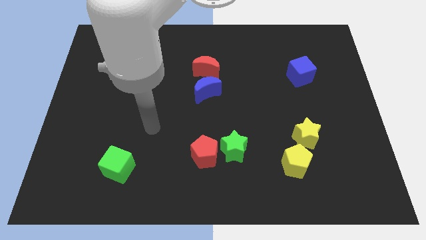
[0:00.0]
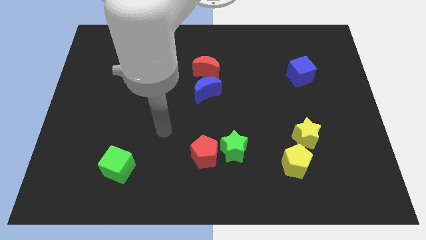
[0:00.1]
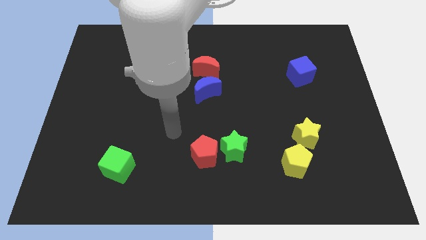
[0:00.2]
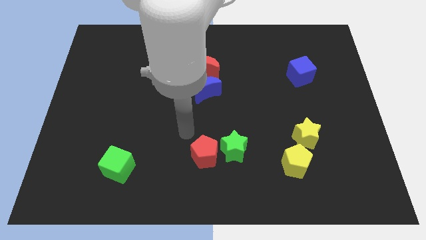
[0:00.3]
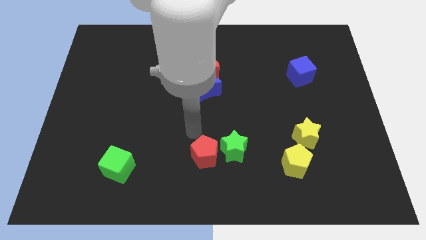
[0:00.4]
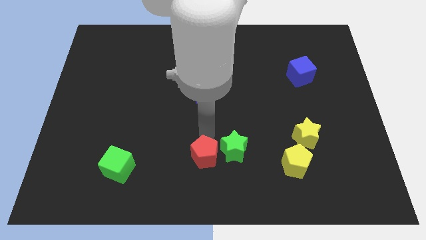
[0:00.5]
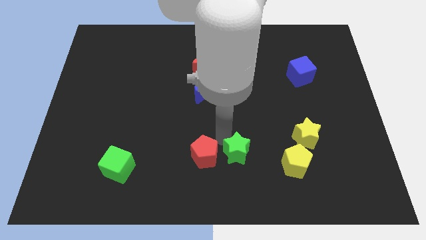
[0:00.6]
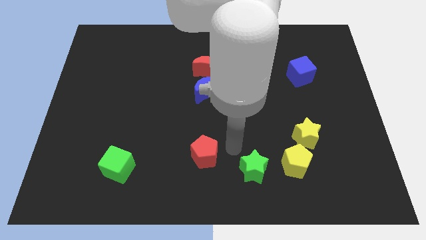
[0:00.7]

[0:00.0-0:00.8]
move the red pentagon away from the green star

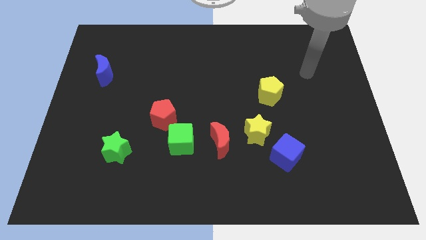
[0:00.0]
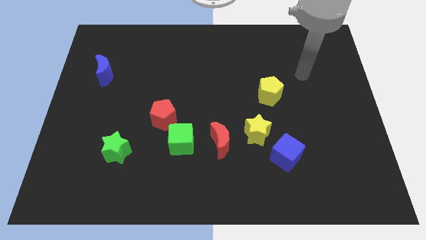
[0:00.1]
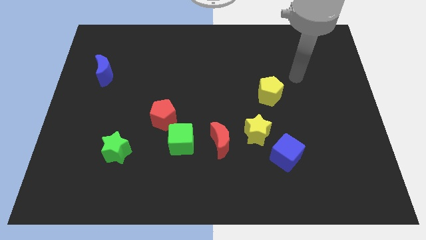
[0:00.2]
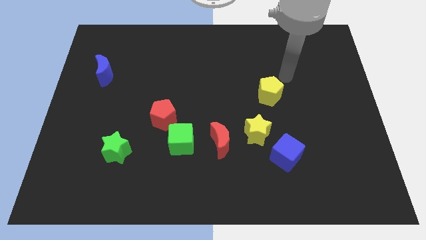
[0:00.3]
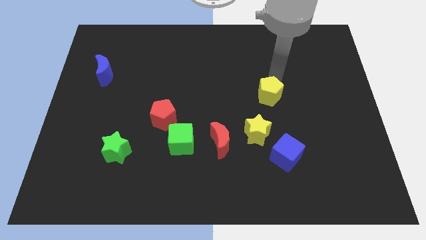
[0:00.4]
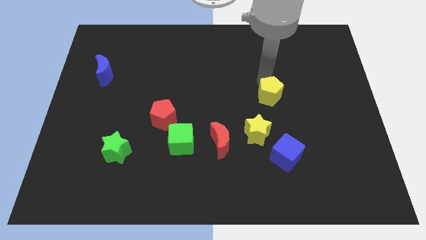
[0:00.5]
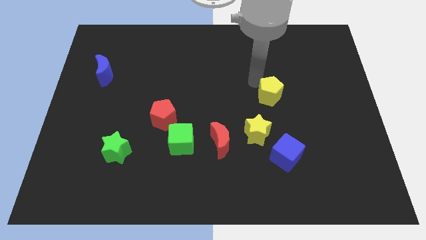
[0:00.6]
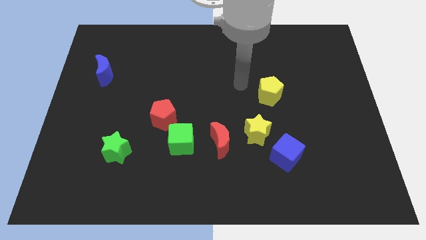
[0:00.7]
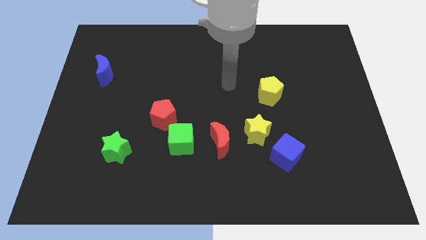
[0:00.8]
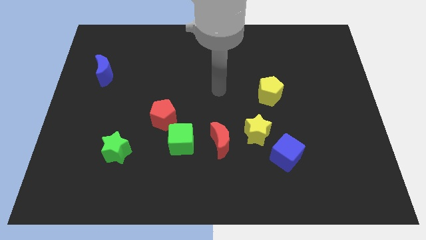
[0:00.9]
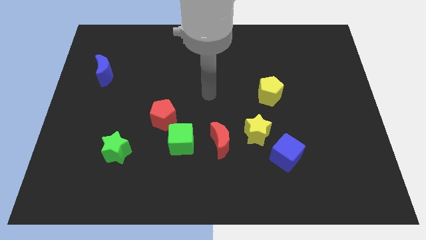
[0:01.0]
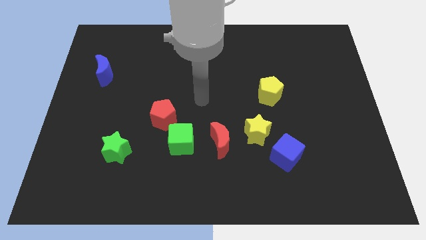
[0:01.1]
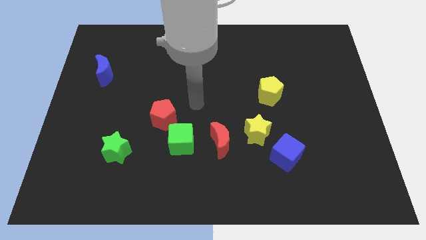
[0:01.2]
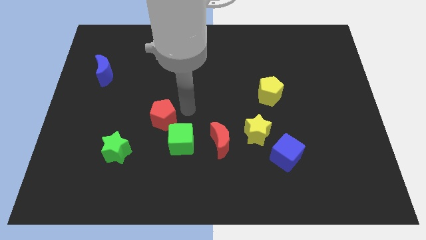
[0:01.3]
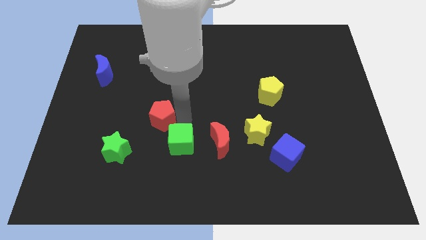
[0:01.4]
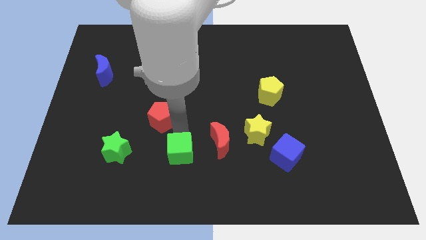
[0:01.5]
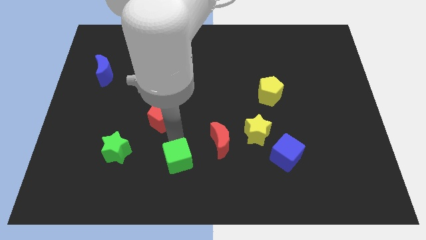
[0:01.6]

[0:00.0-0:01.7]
separate the red pentagon from the green cube

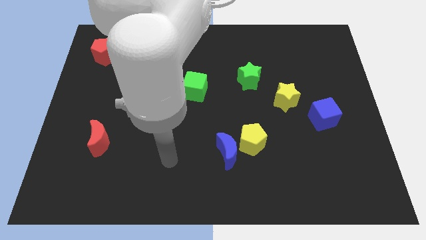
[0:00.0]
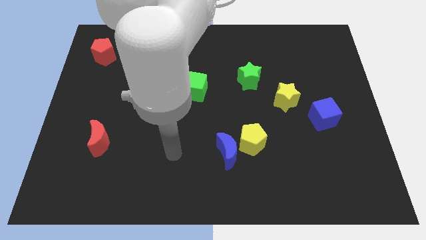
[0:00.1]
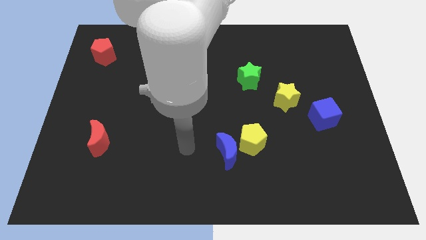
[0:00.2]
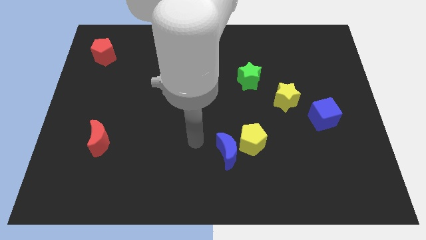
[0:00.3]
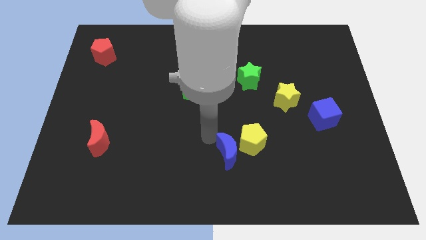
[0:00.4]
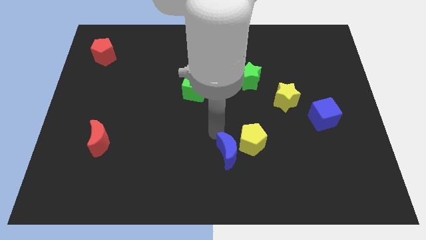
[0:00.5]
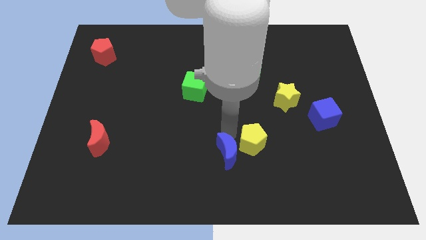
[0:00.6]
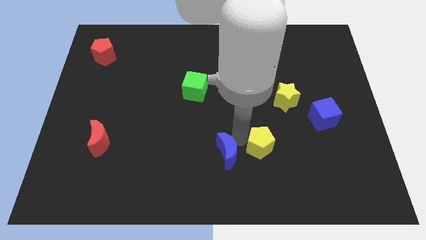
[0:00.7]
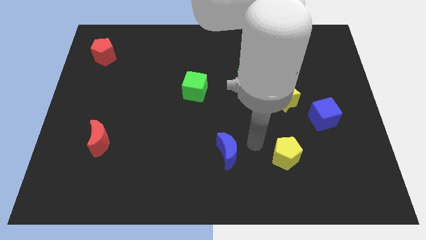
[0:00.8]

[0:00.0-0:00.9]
move the blue moon away from the yellow pentagon

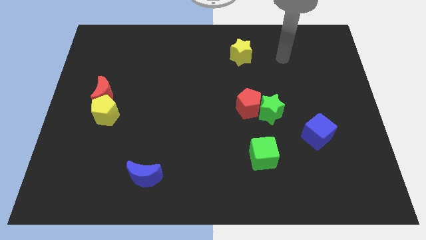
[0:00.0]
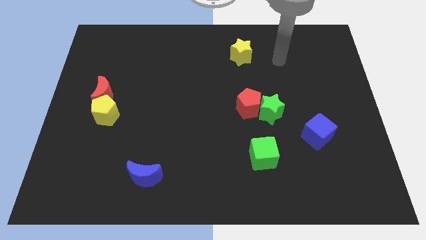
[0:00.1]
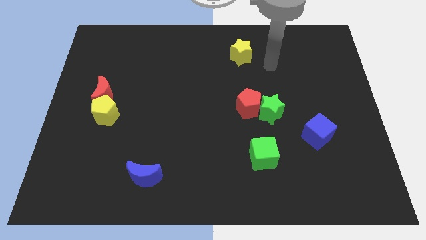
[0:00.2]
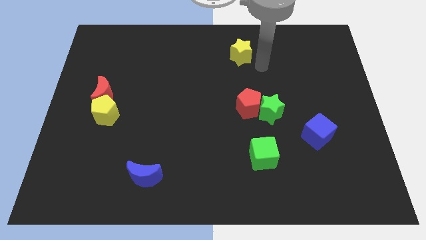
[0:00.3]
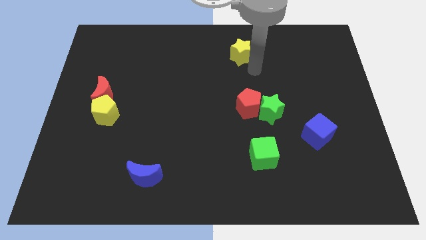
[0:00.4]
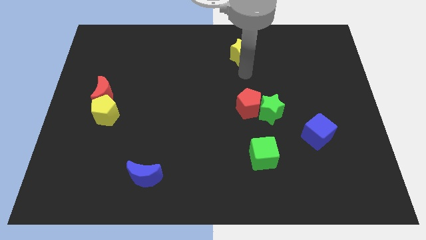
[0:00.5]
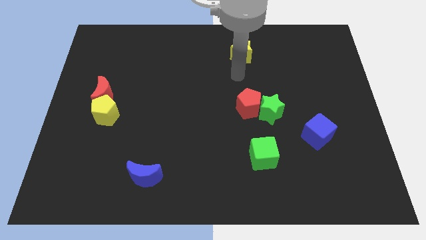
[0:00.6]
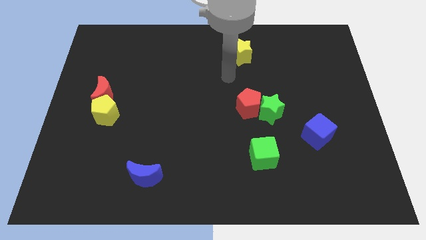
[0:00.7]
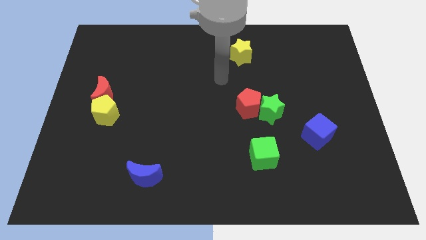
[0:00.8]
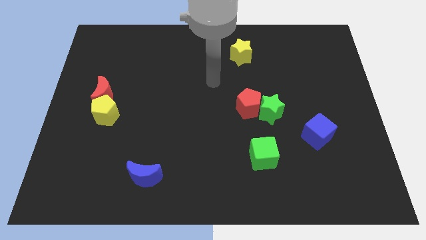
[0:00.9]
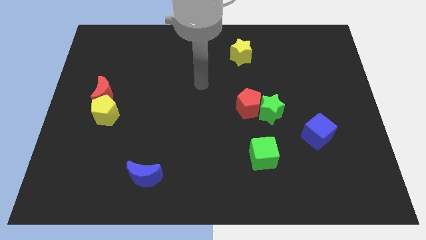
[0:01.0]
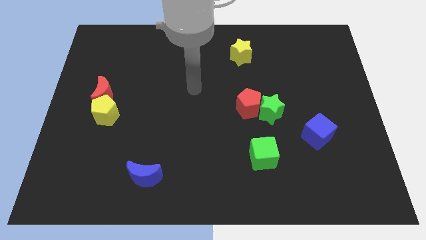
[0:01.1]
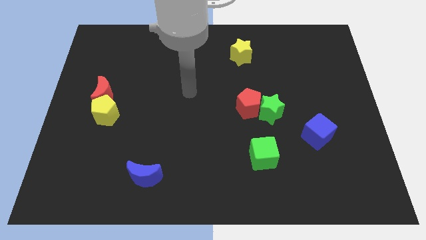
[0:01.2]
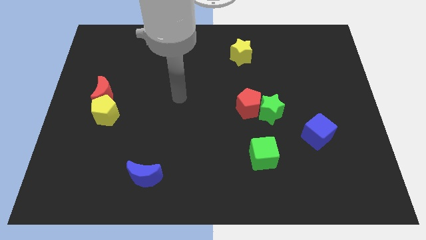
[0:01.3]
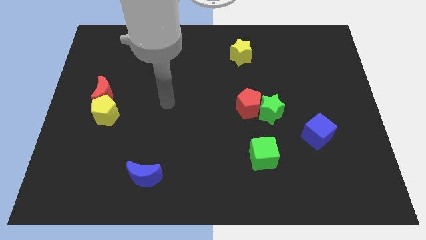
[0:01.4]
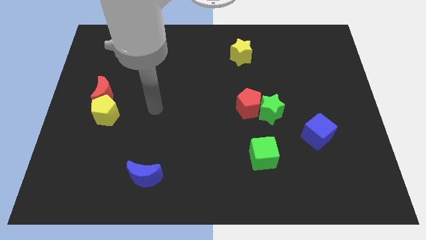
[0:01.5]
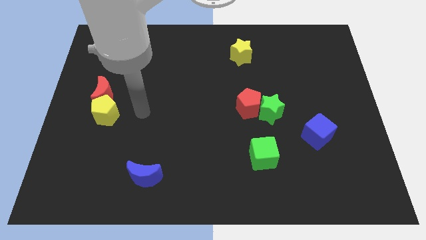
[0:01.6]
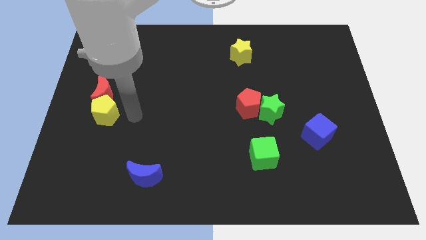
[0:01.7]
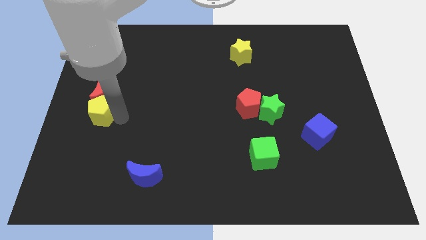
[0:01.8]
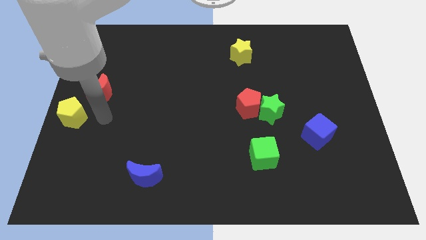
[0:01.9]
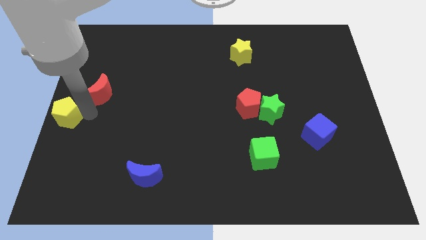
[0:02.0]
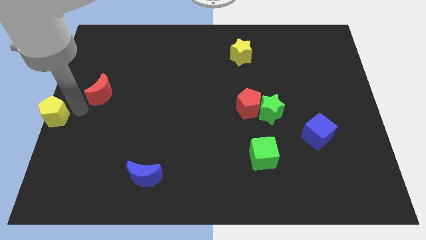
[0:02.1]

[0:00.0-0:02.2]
separate the red moon from the yellow pentagon

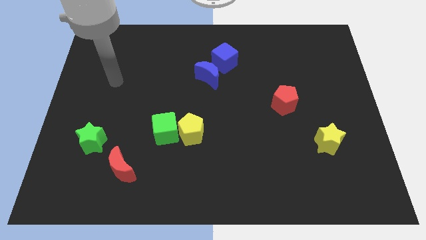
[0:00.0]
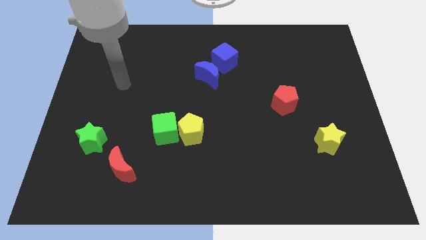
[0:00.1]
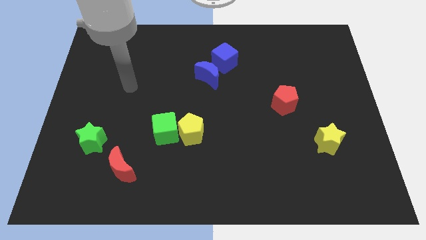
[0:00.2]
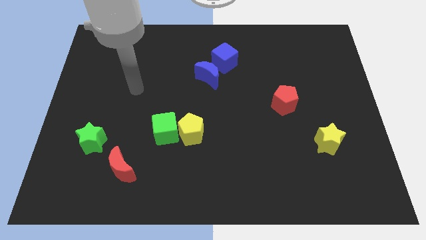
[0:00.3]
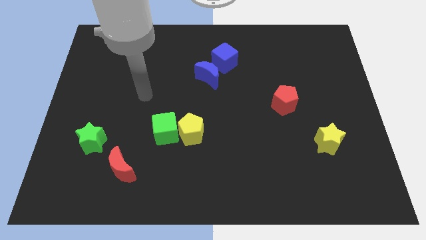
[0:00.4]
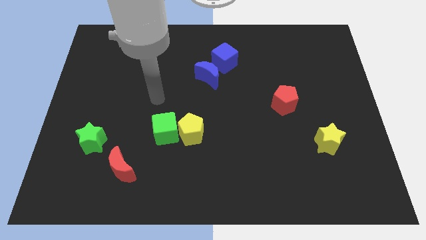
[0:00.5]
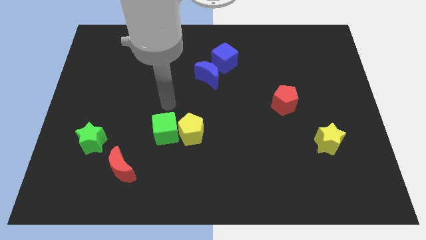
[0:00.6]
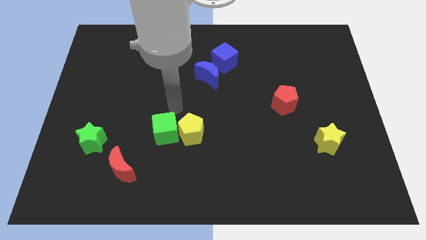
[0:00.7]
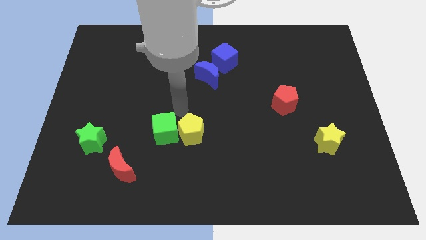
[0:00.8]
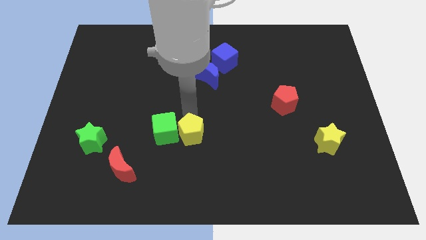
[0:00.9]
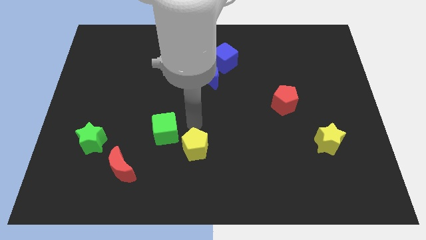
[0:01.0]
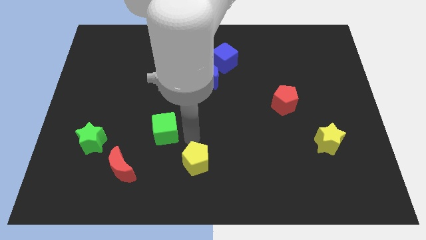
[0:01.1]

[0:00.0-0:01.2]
move the green cube away from the yellow pentagon

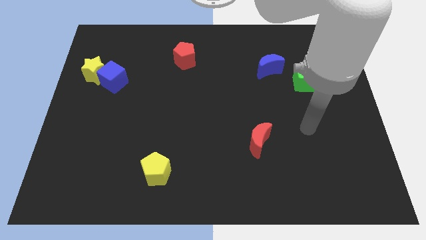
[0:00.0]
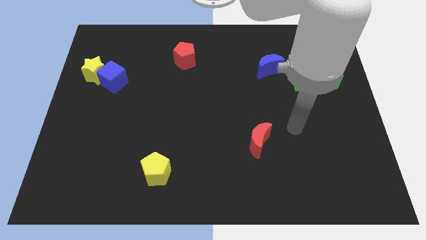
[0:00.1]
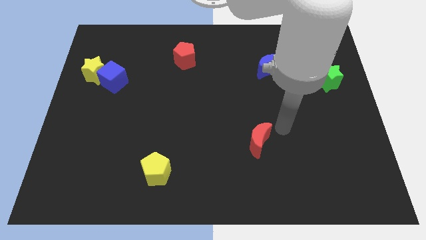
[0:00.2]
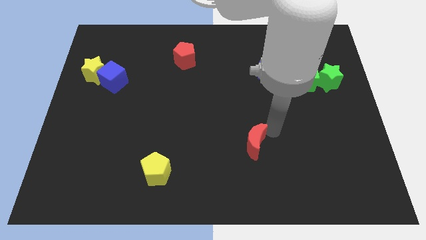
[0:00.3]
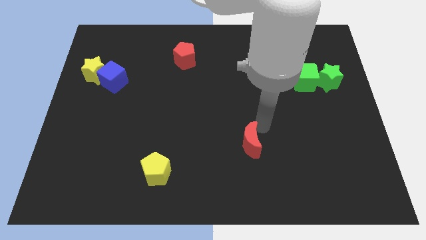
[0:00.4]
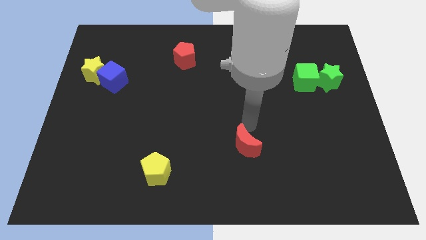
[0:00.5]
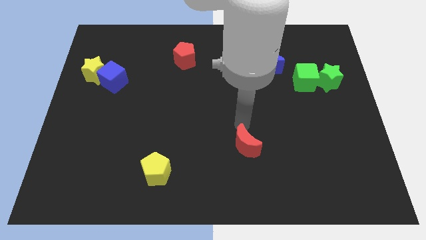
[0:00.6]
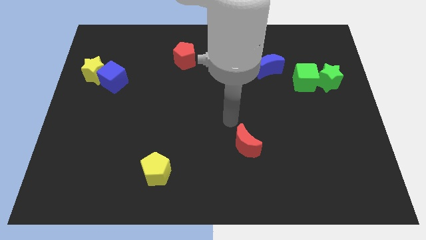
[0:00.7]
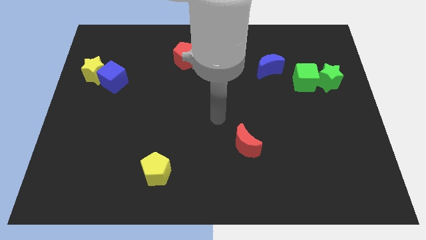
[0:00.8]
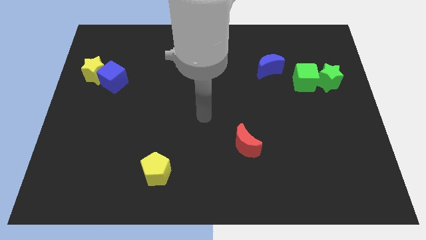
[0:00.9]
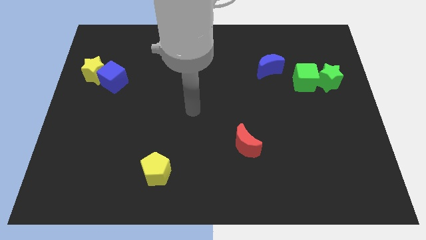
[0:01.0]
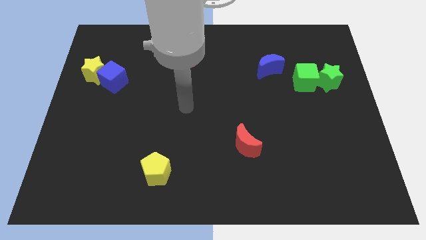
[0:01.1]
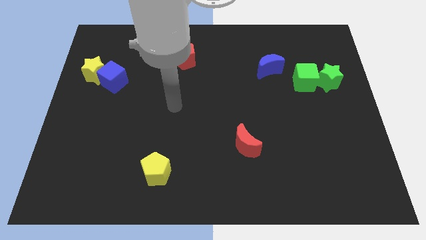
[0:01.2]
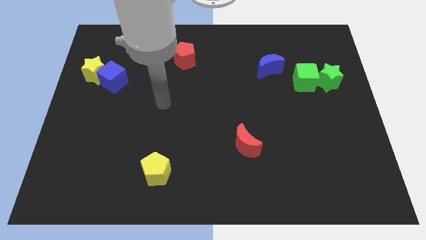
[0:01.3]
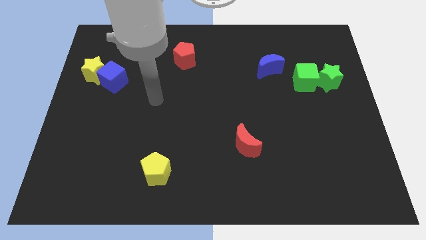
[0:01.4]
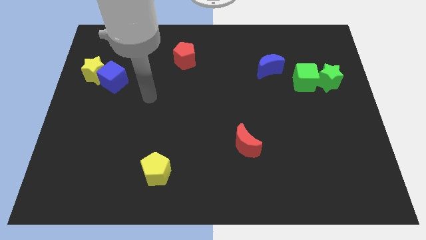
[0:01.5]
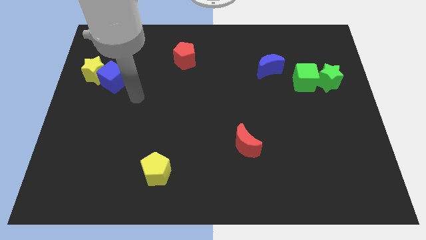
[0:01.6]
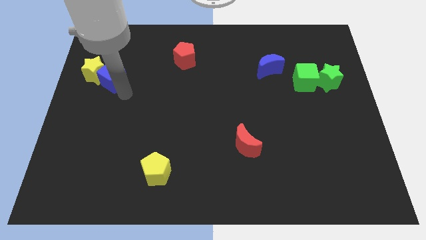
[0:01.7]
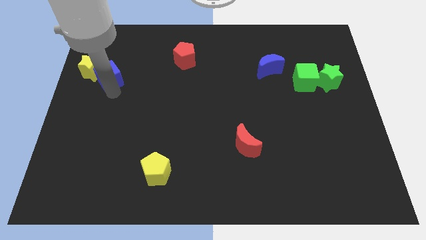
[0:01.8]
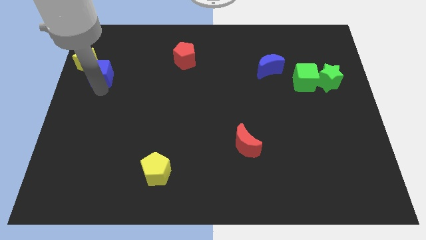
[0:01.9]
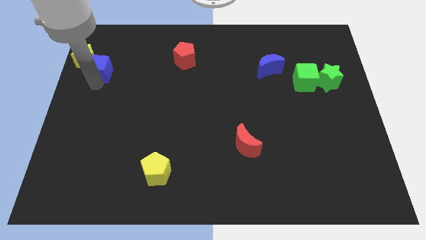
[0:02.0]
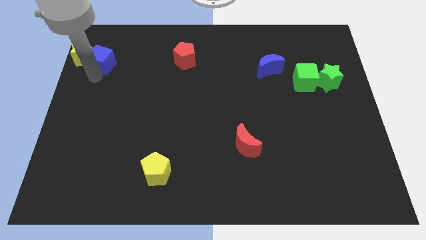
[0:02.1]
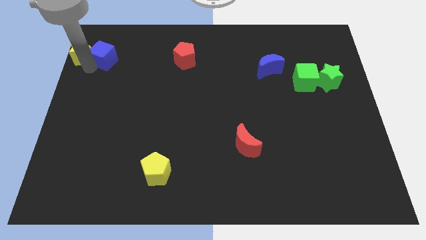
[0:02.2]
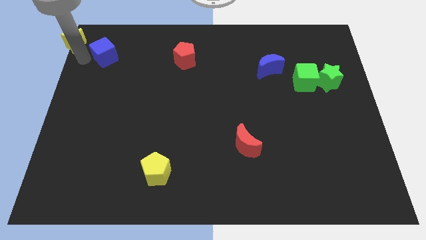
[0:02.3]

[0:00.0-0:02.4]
separate the blue cube from the yellow star
